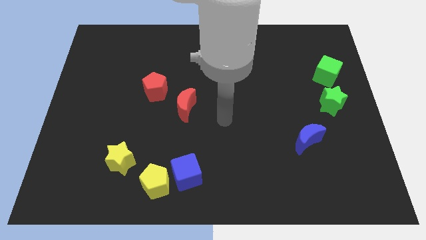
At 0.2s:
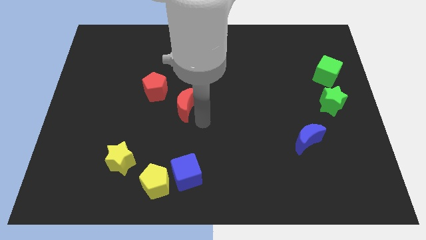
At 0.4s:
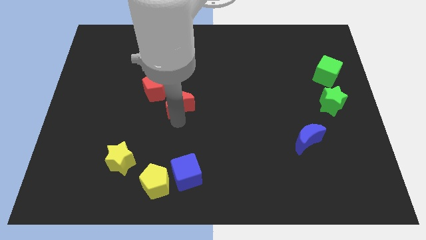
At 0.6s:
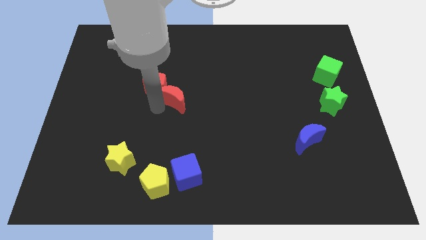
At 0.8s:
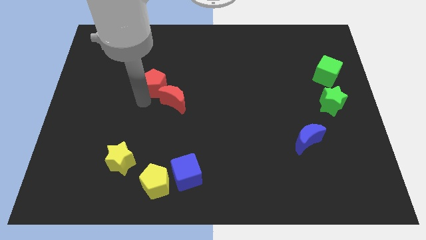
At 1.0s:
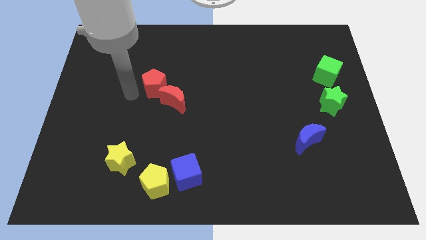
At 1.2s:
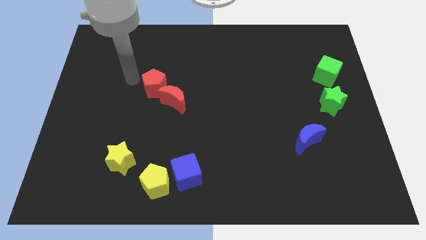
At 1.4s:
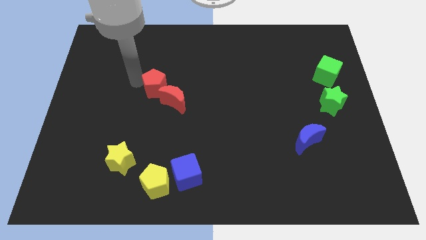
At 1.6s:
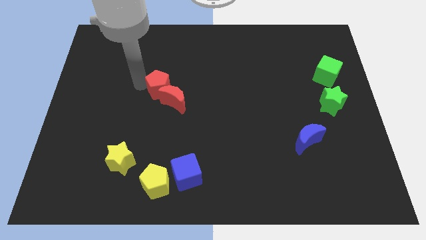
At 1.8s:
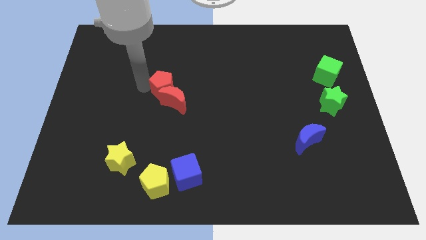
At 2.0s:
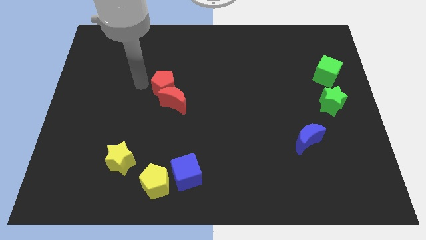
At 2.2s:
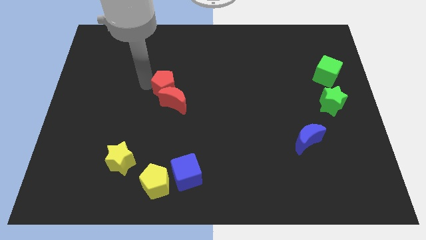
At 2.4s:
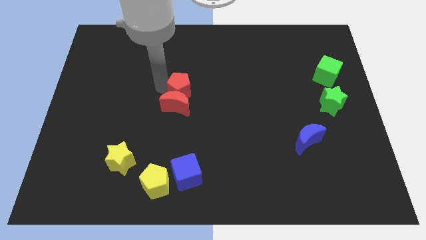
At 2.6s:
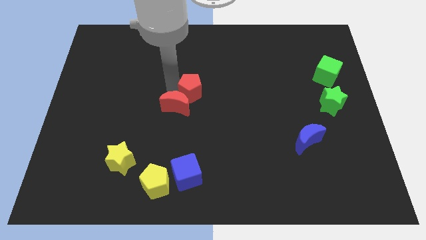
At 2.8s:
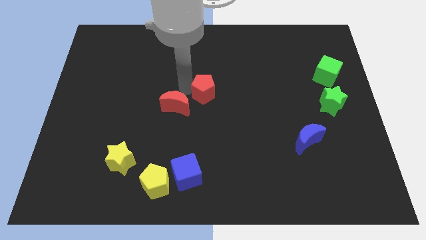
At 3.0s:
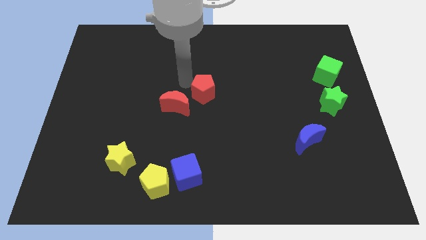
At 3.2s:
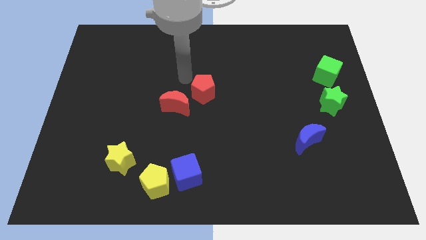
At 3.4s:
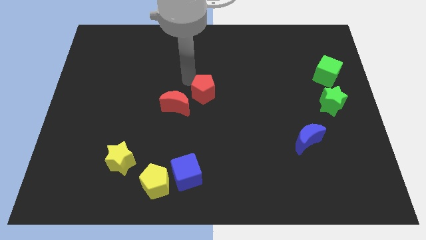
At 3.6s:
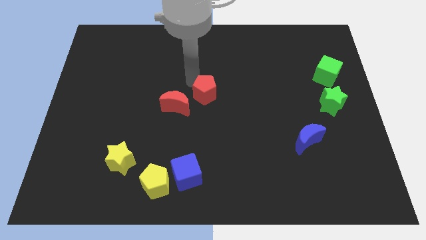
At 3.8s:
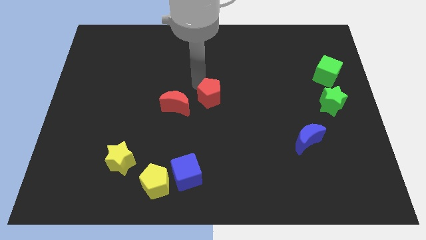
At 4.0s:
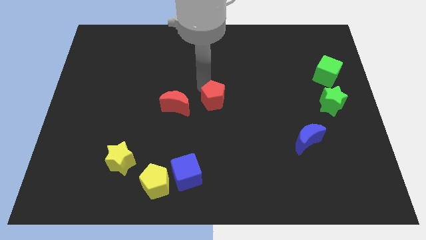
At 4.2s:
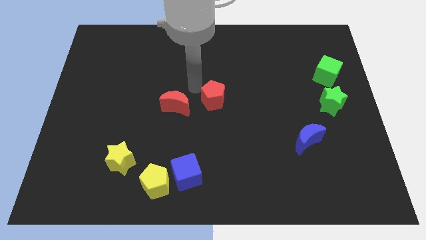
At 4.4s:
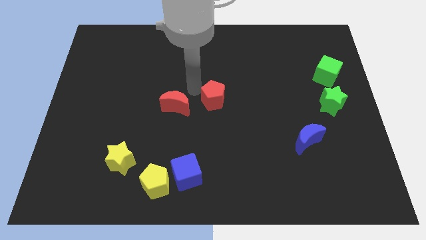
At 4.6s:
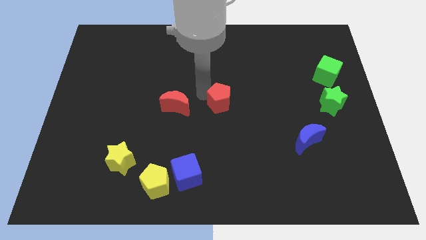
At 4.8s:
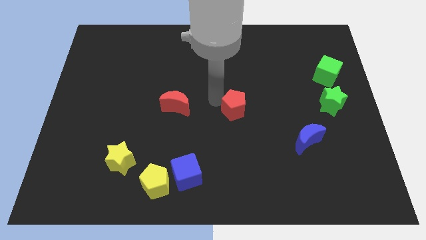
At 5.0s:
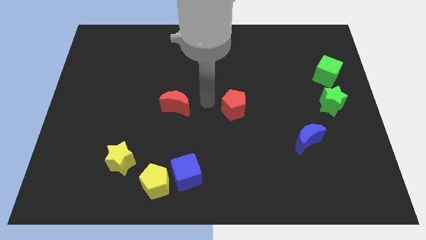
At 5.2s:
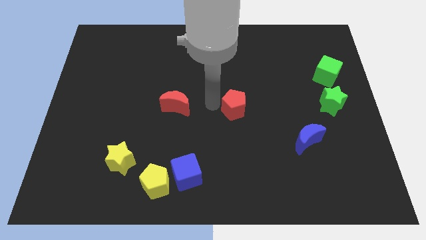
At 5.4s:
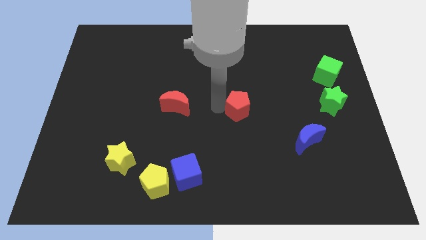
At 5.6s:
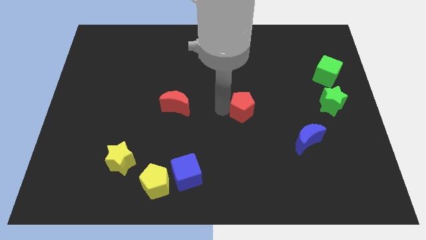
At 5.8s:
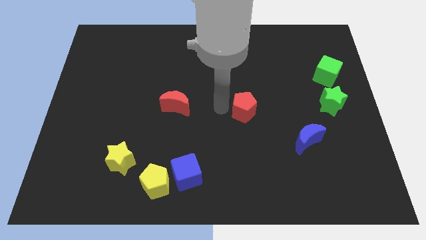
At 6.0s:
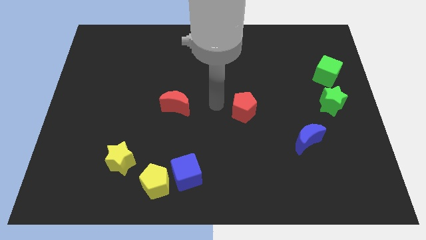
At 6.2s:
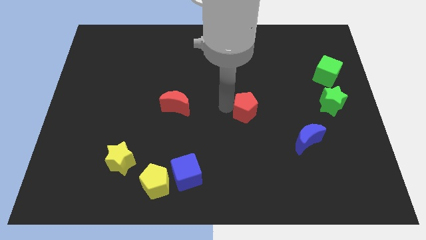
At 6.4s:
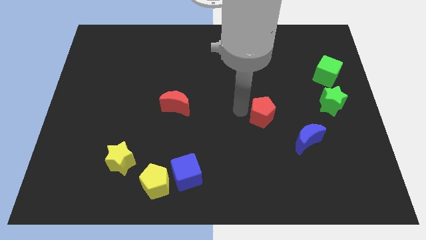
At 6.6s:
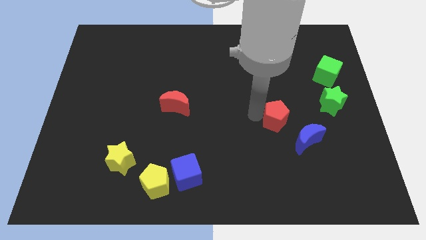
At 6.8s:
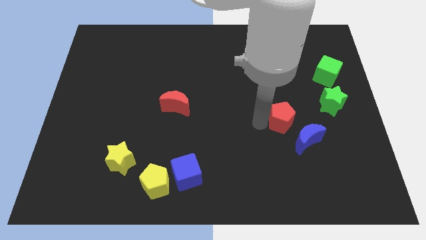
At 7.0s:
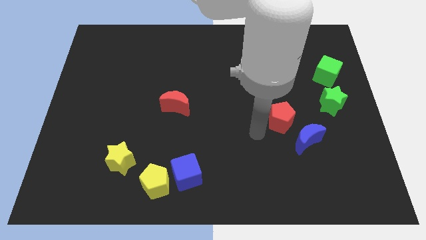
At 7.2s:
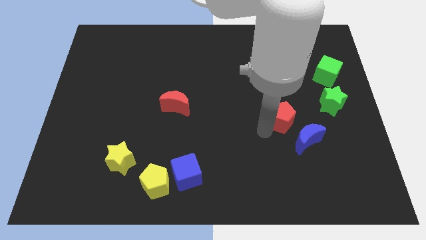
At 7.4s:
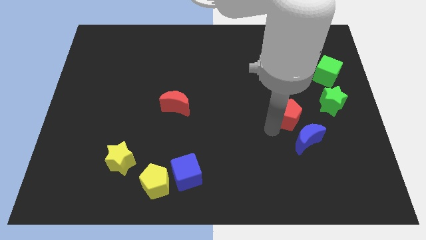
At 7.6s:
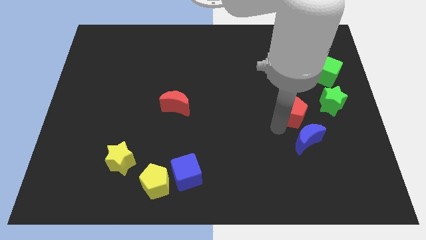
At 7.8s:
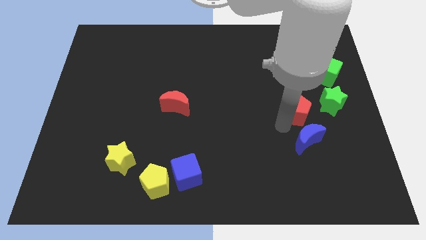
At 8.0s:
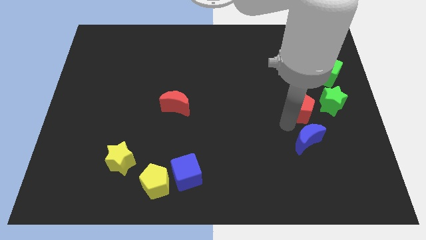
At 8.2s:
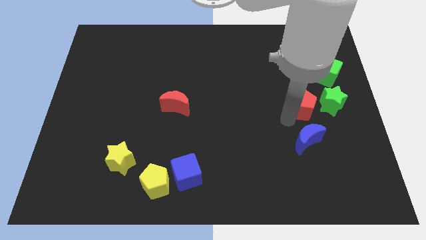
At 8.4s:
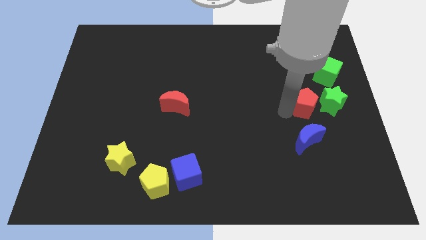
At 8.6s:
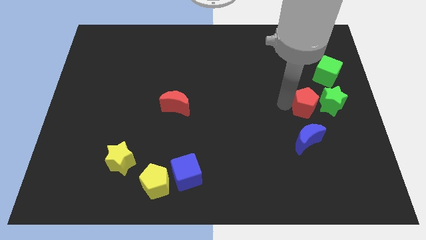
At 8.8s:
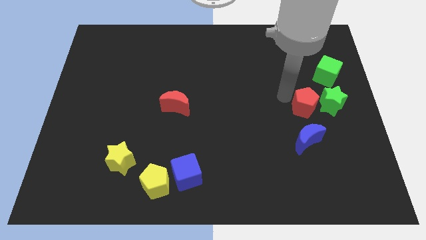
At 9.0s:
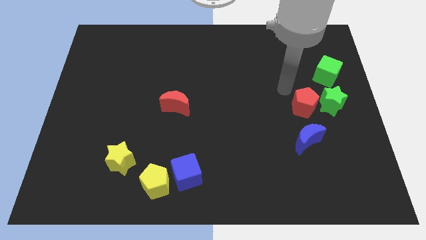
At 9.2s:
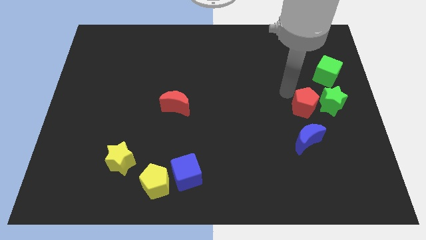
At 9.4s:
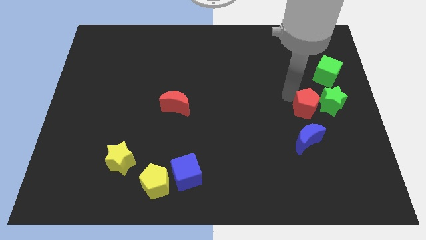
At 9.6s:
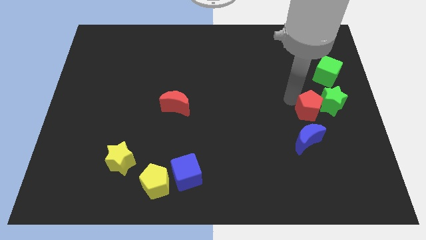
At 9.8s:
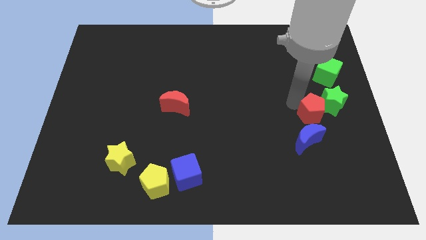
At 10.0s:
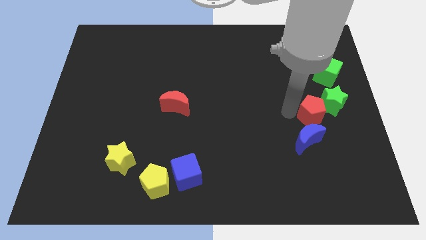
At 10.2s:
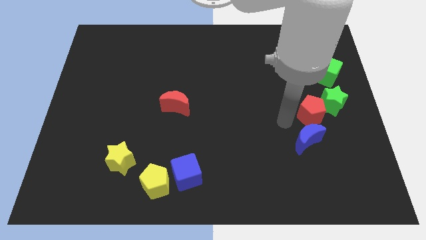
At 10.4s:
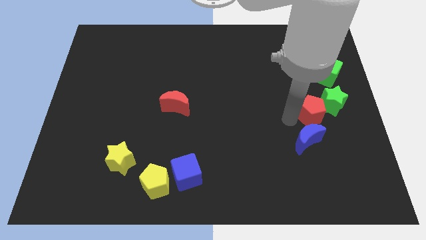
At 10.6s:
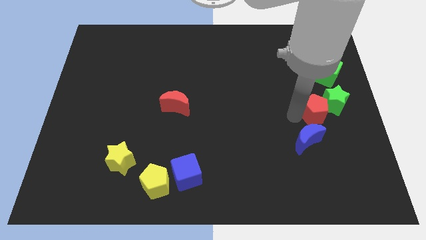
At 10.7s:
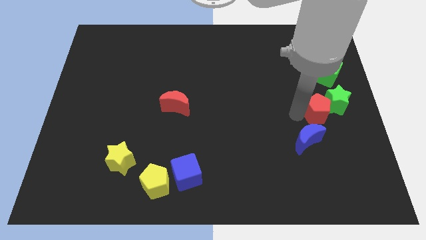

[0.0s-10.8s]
put the red pentagon to the bottom of the green cube

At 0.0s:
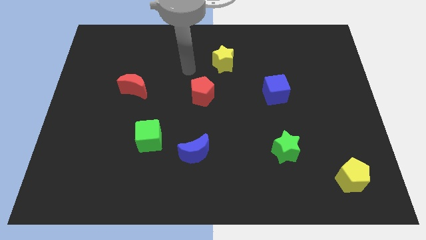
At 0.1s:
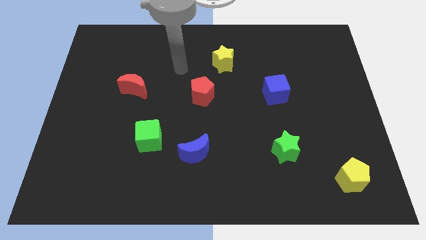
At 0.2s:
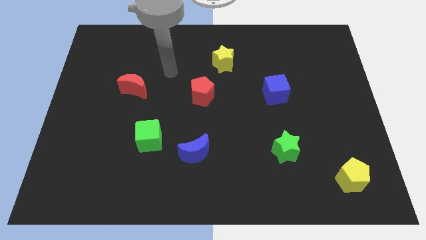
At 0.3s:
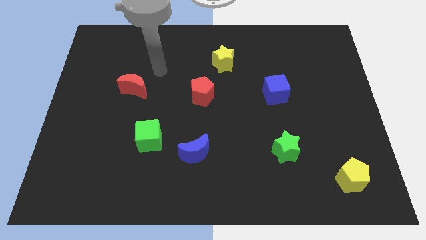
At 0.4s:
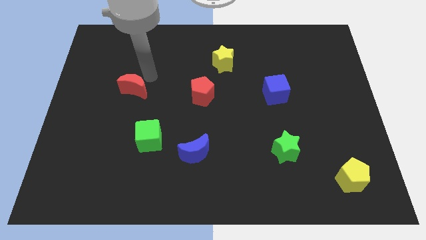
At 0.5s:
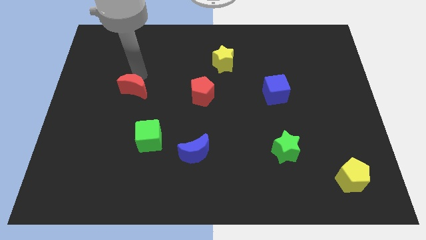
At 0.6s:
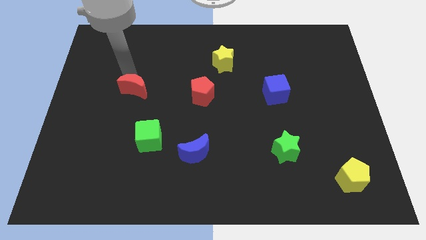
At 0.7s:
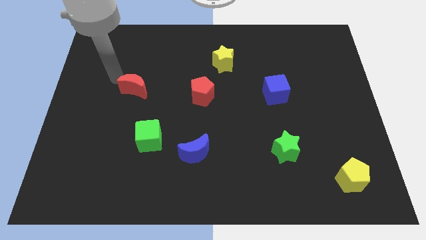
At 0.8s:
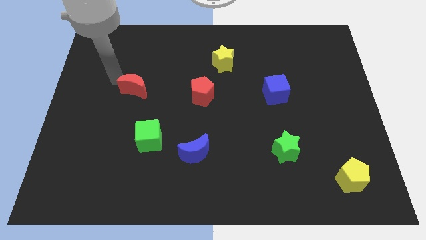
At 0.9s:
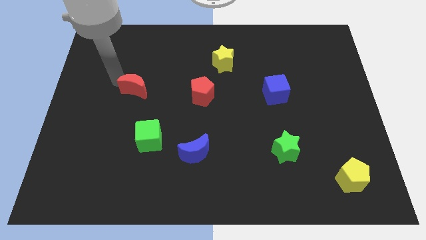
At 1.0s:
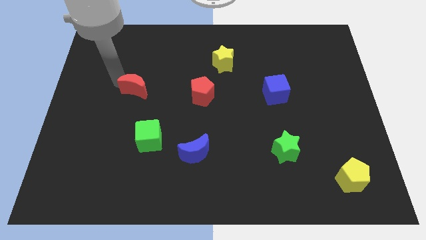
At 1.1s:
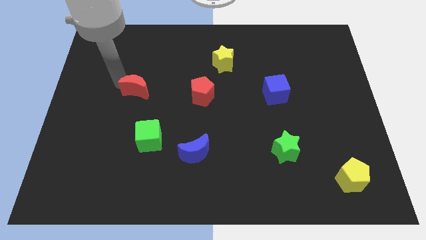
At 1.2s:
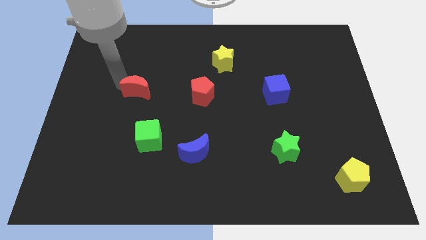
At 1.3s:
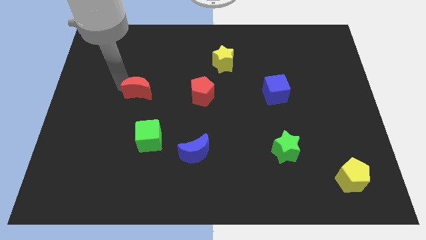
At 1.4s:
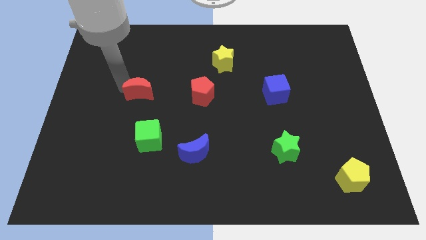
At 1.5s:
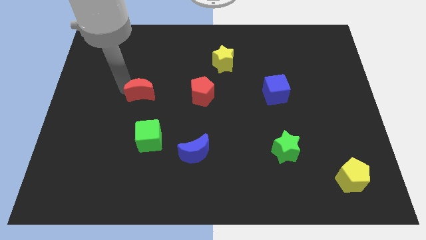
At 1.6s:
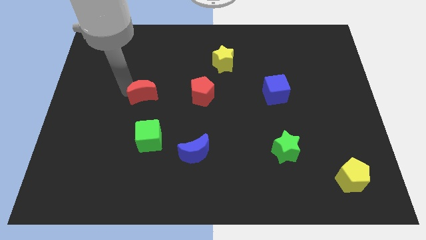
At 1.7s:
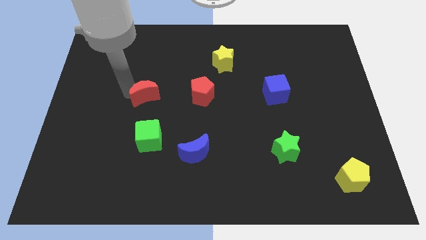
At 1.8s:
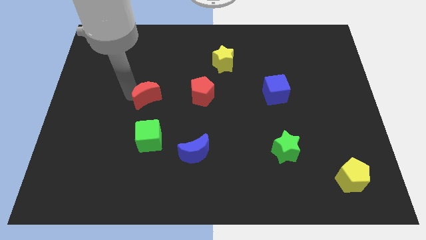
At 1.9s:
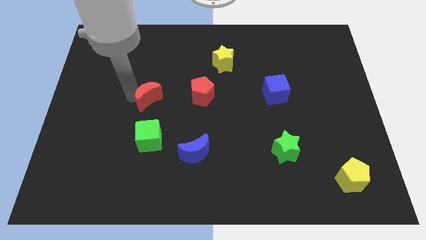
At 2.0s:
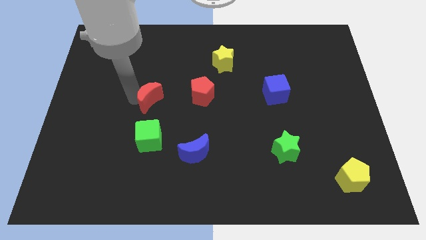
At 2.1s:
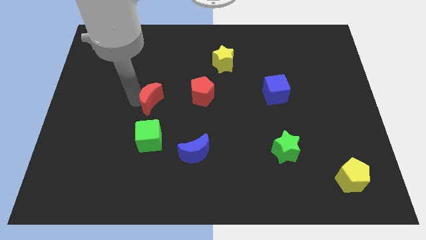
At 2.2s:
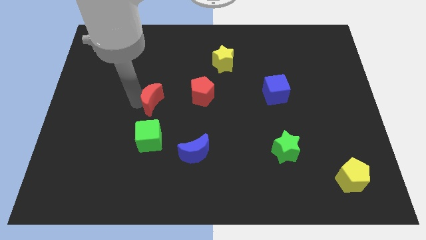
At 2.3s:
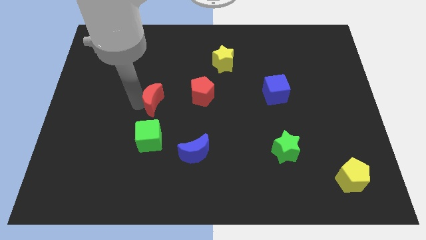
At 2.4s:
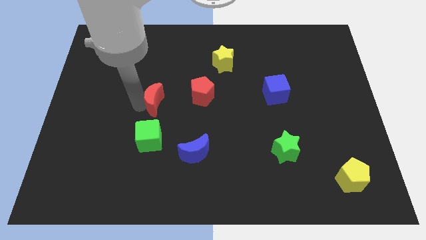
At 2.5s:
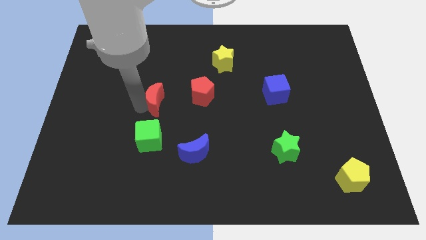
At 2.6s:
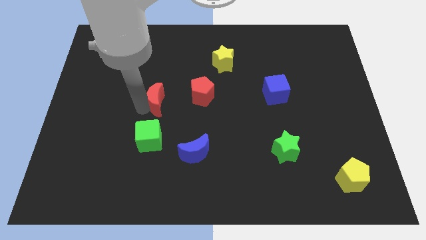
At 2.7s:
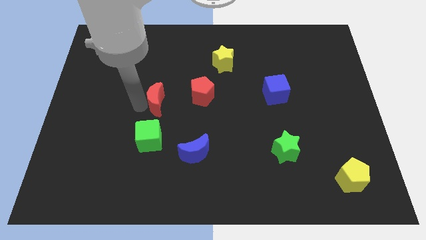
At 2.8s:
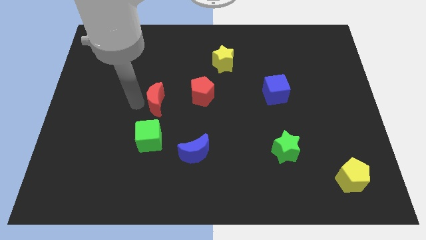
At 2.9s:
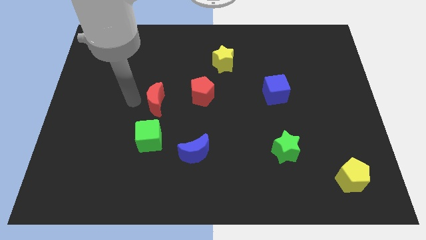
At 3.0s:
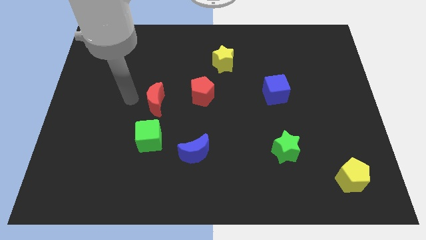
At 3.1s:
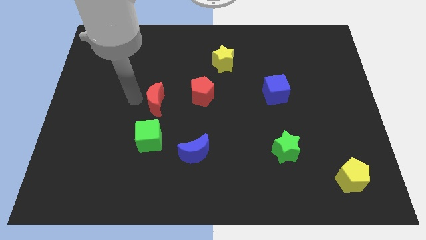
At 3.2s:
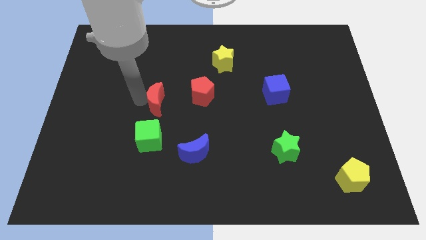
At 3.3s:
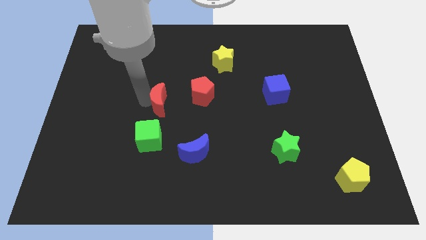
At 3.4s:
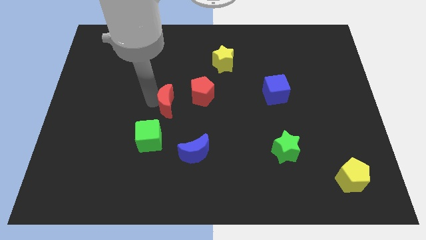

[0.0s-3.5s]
put the red moon diagonally down and to the left of the red pentagon
